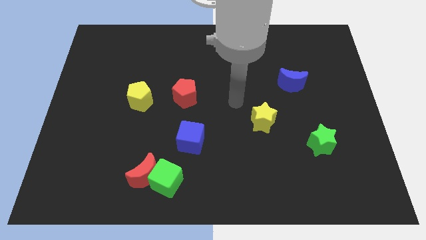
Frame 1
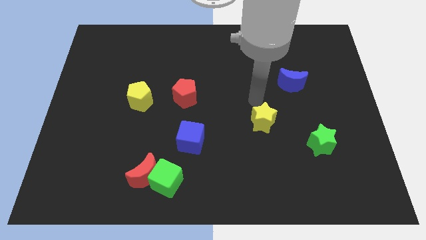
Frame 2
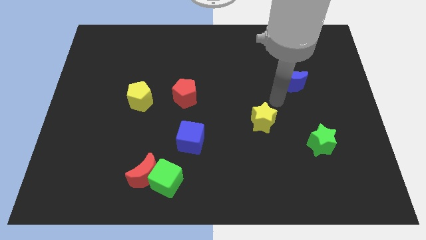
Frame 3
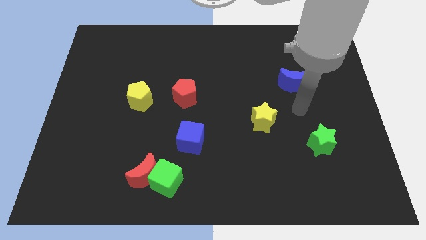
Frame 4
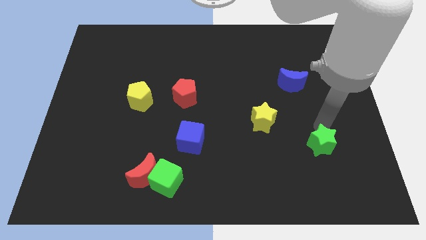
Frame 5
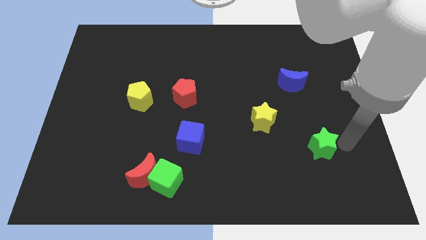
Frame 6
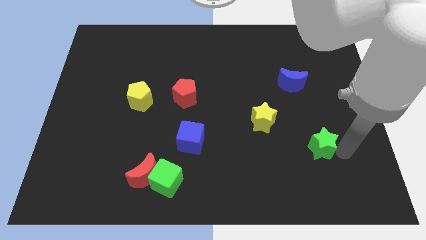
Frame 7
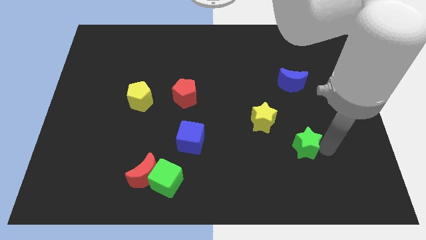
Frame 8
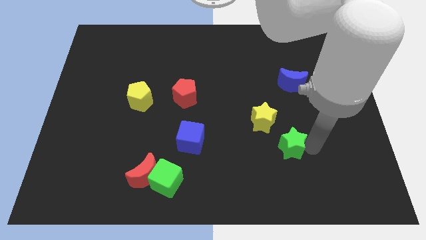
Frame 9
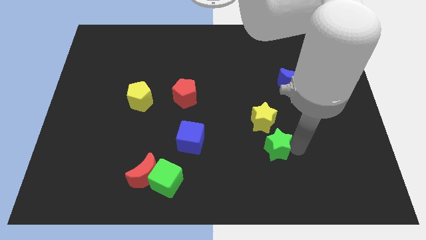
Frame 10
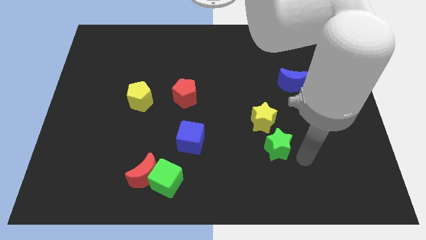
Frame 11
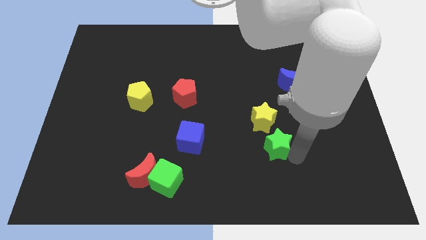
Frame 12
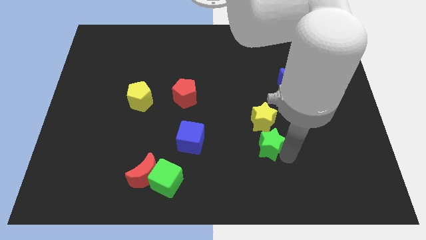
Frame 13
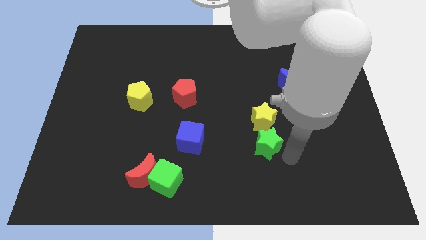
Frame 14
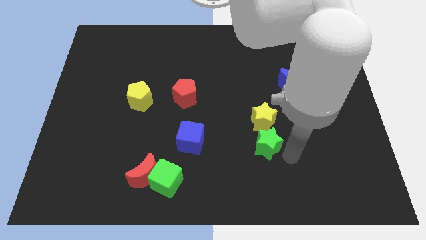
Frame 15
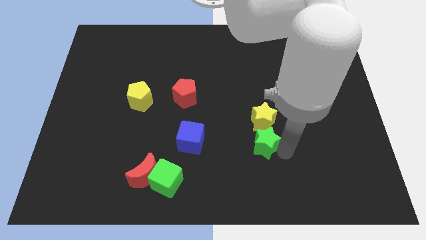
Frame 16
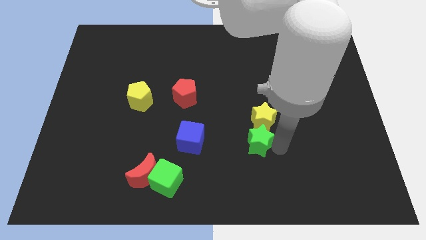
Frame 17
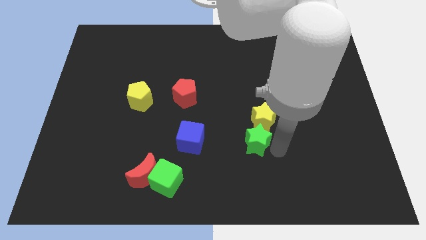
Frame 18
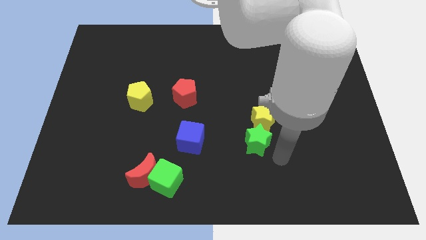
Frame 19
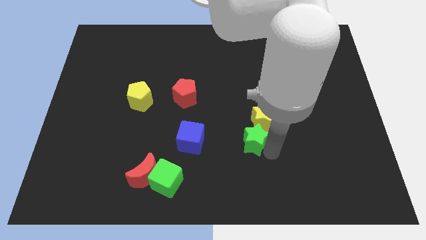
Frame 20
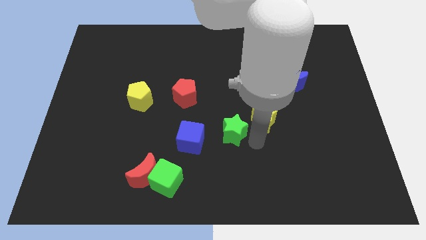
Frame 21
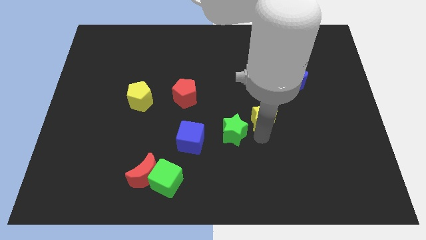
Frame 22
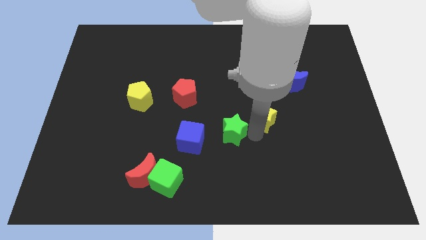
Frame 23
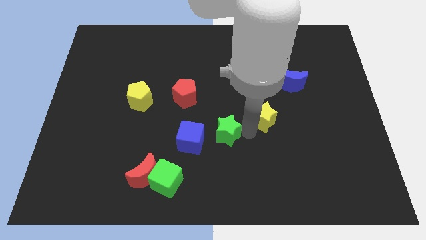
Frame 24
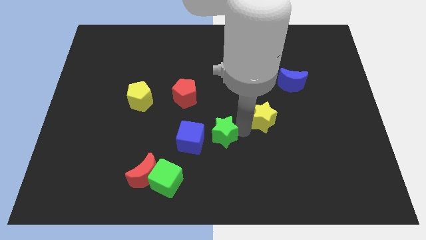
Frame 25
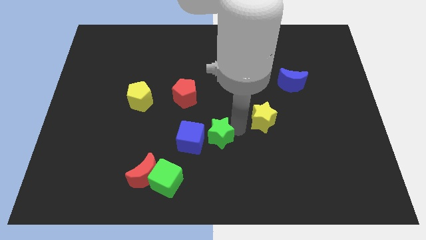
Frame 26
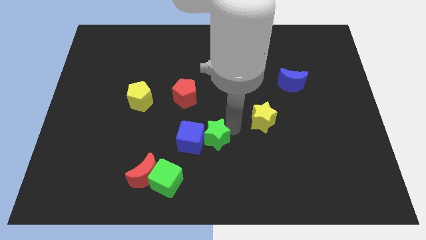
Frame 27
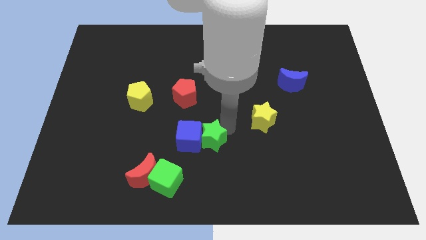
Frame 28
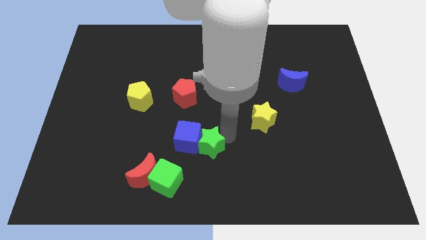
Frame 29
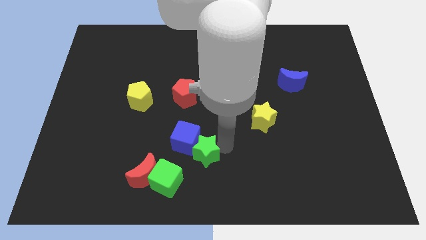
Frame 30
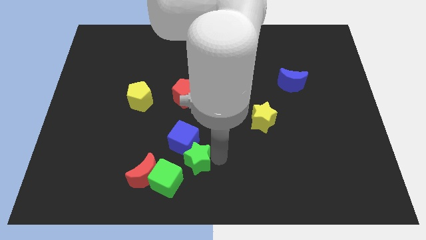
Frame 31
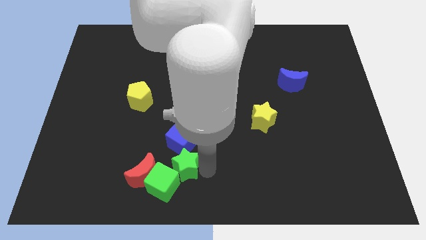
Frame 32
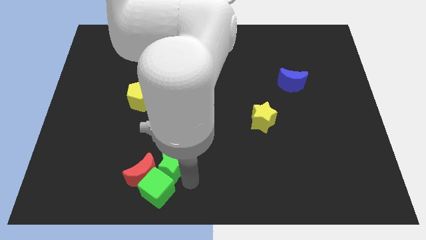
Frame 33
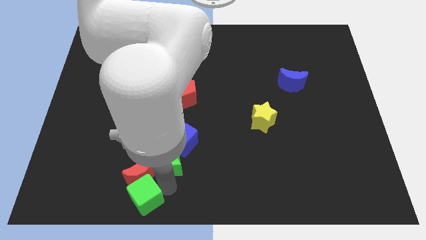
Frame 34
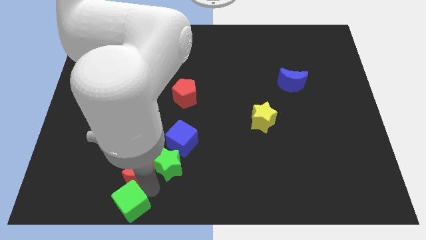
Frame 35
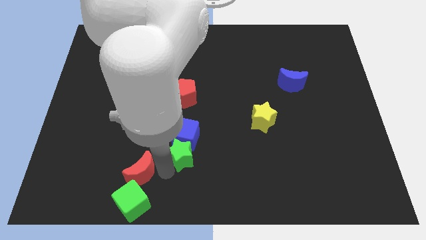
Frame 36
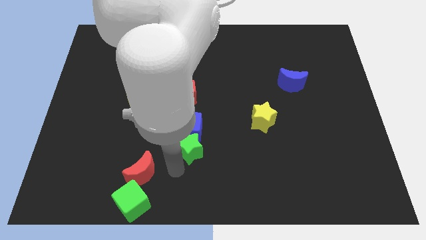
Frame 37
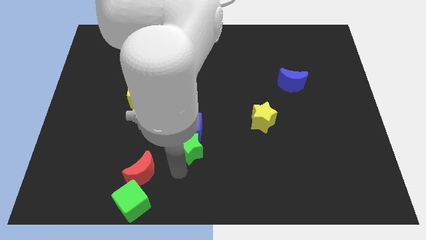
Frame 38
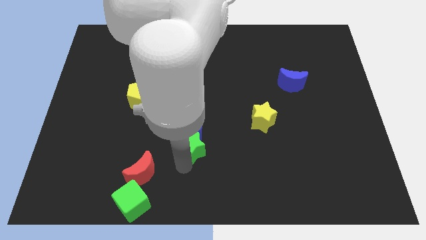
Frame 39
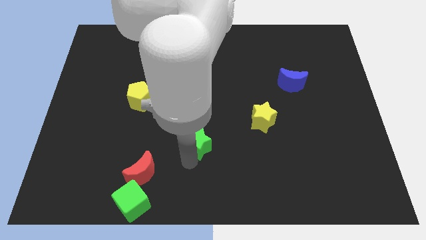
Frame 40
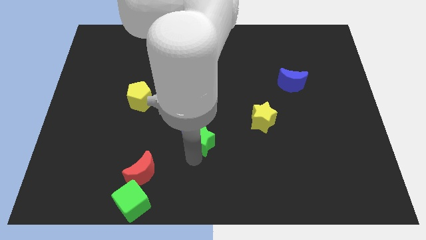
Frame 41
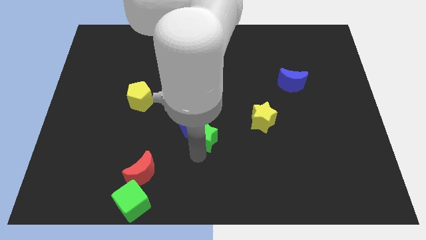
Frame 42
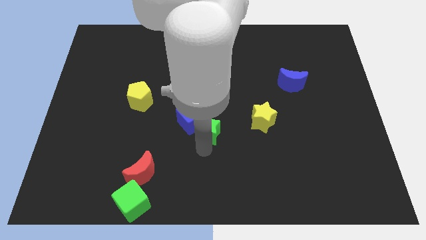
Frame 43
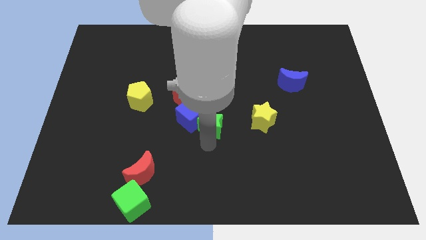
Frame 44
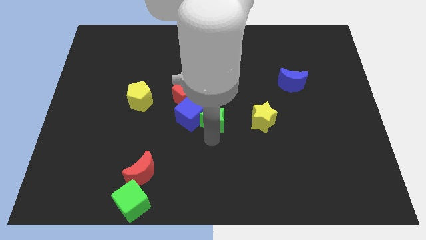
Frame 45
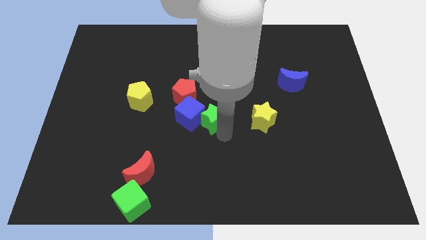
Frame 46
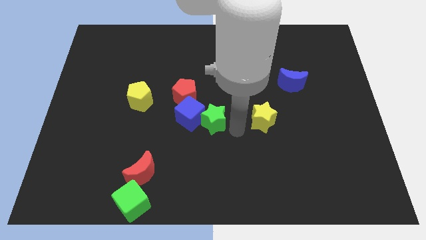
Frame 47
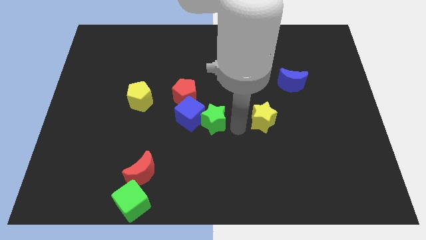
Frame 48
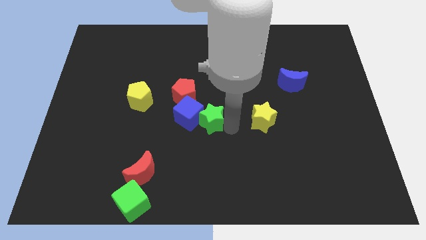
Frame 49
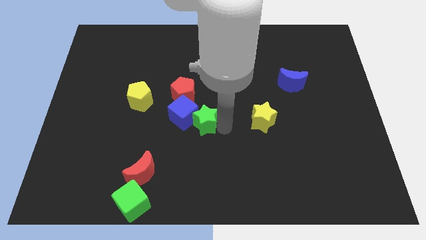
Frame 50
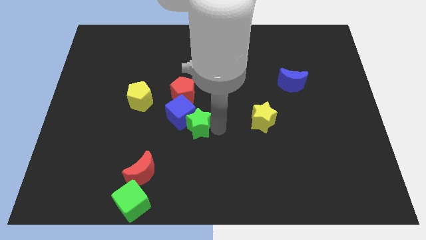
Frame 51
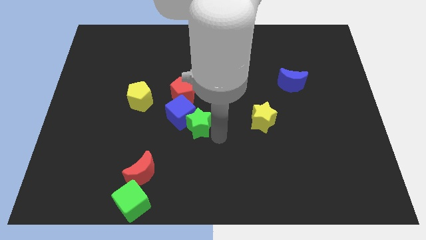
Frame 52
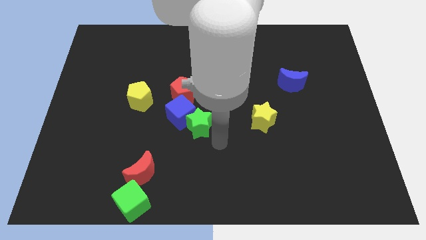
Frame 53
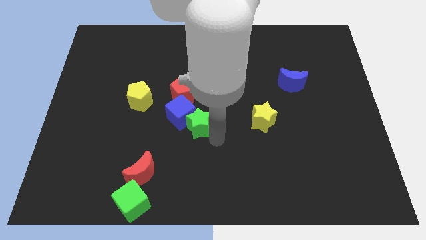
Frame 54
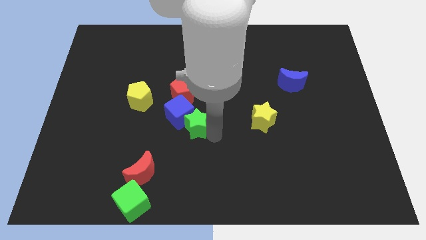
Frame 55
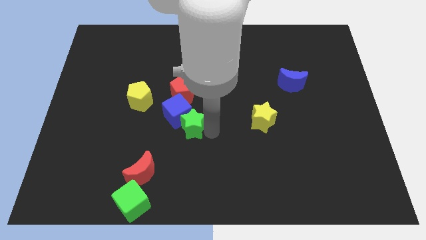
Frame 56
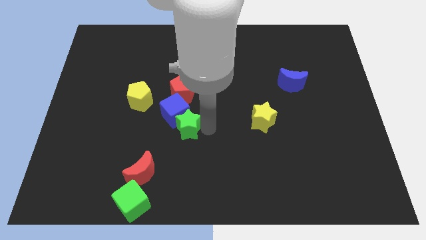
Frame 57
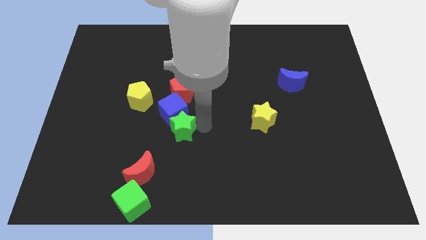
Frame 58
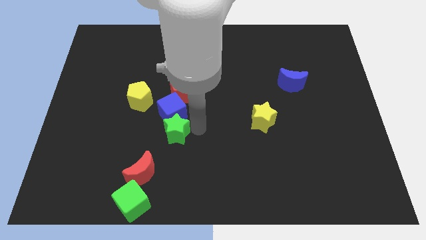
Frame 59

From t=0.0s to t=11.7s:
put the green star diagonally down and to the right of the yellow pentagon

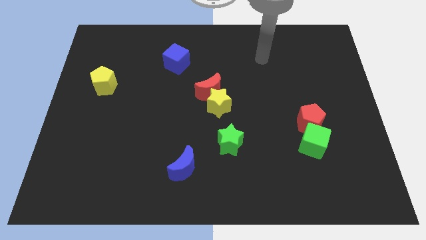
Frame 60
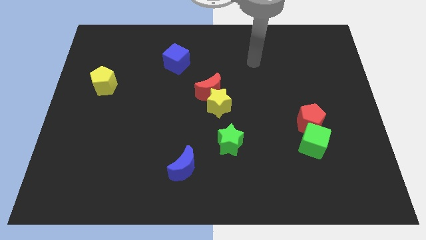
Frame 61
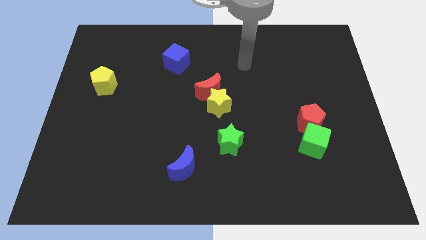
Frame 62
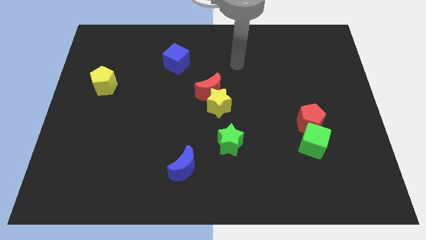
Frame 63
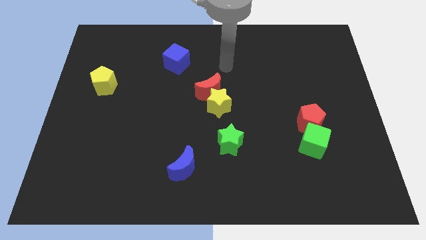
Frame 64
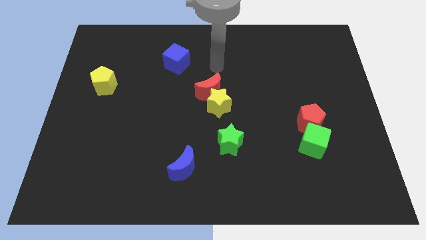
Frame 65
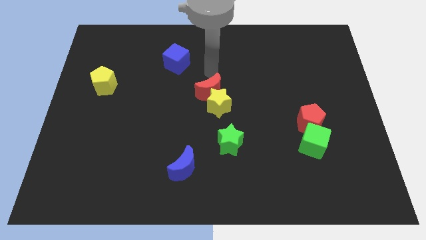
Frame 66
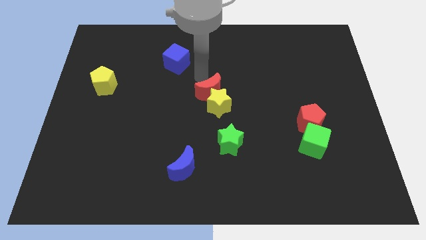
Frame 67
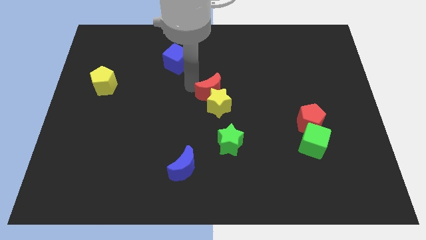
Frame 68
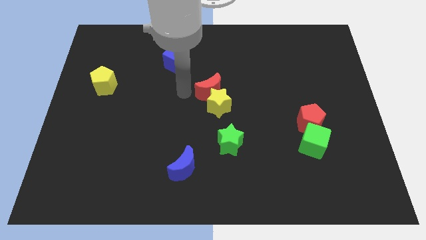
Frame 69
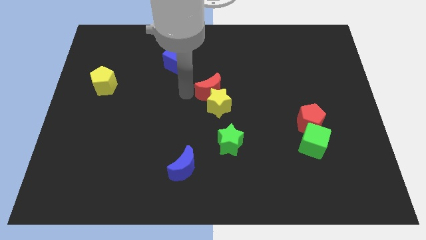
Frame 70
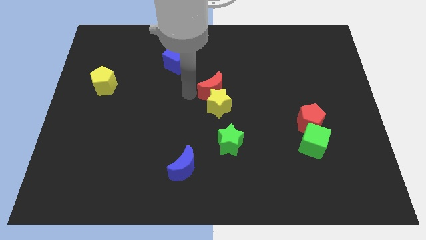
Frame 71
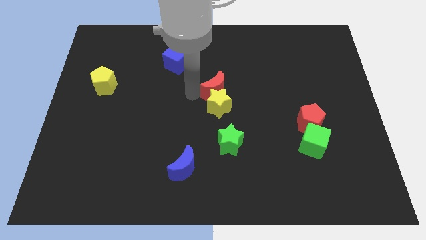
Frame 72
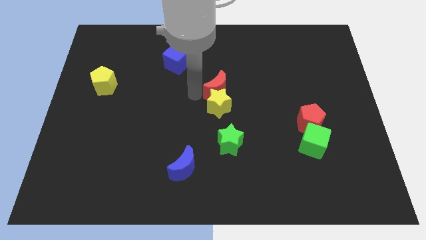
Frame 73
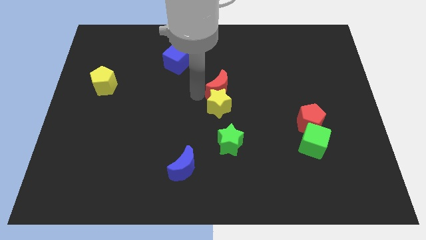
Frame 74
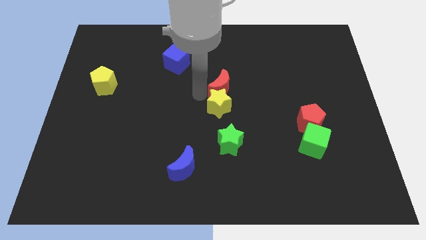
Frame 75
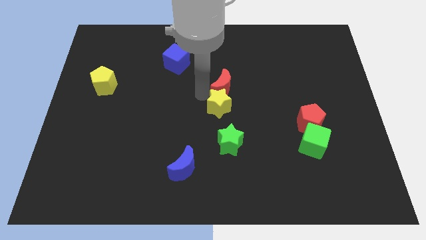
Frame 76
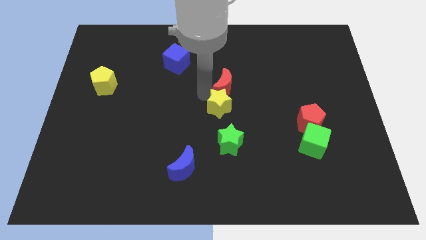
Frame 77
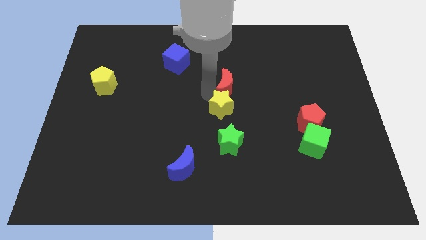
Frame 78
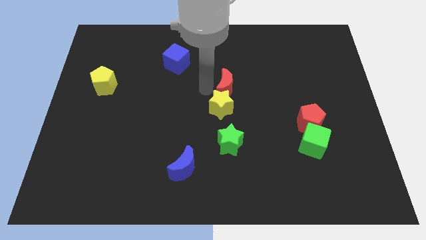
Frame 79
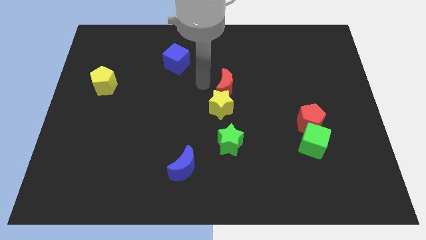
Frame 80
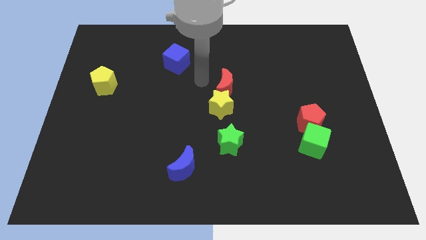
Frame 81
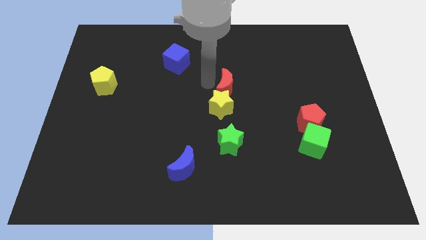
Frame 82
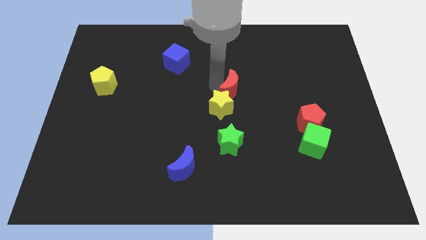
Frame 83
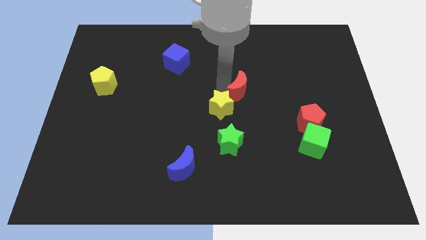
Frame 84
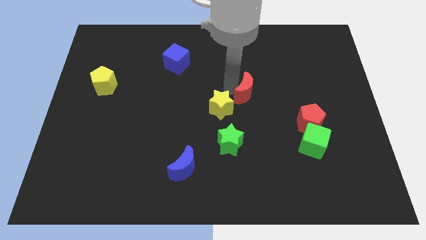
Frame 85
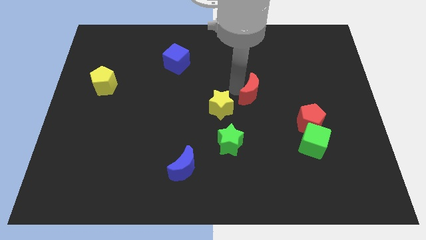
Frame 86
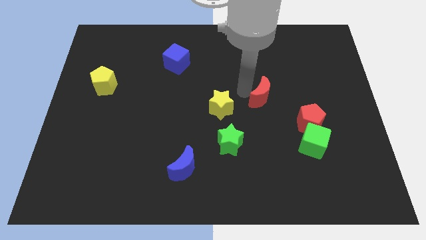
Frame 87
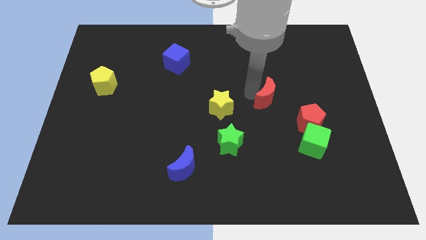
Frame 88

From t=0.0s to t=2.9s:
move the red moon diagonally up and to the left of the red pentagon
